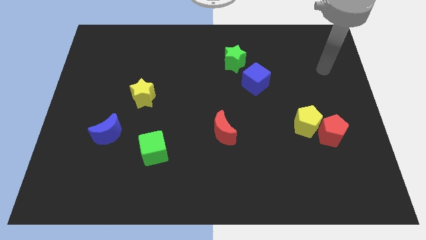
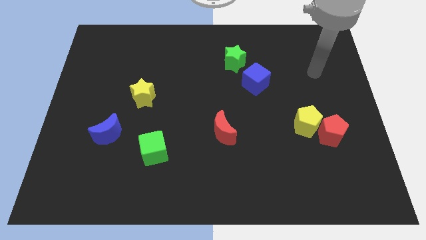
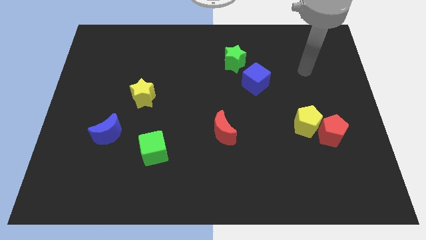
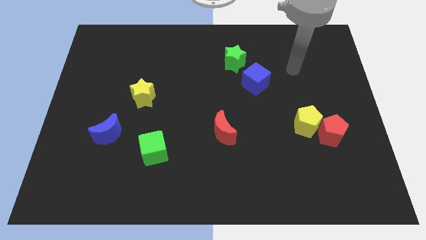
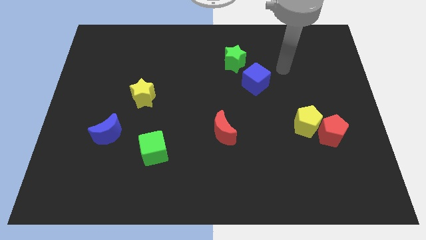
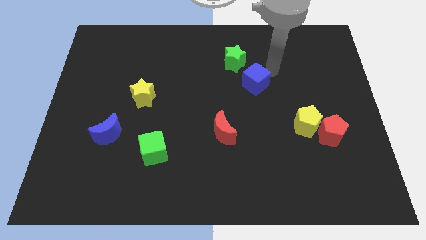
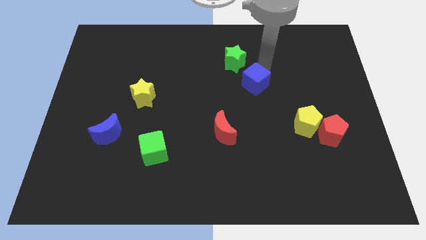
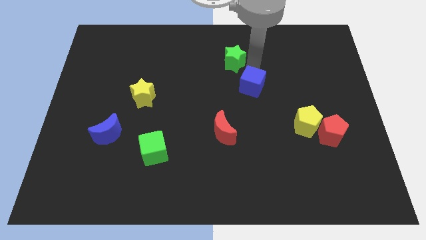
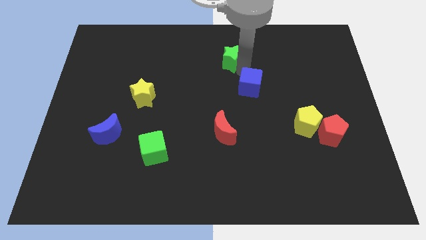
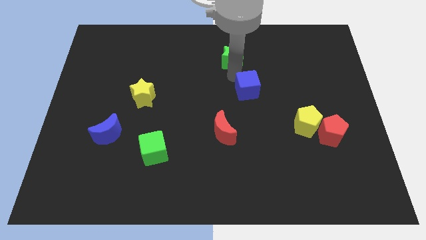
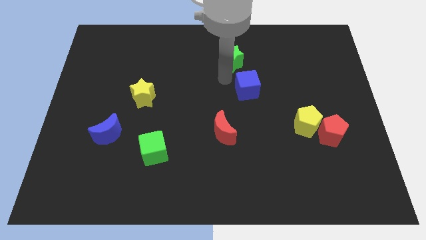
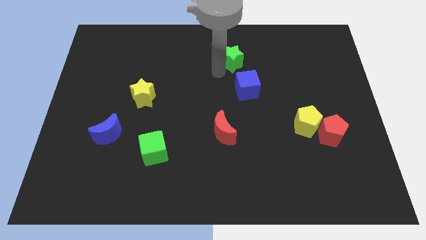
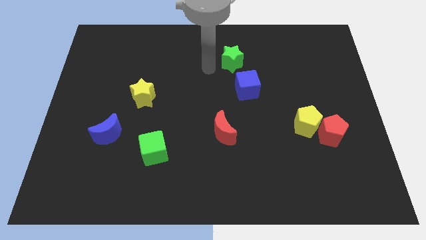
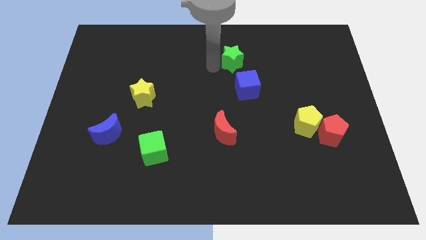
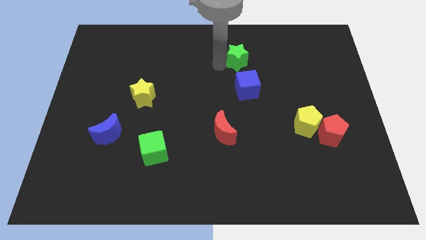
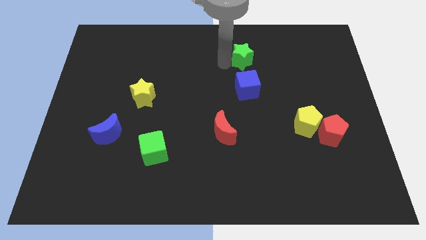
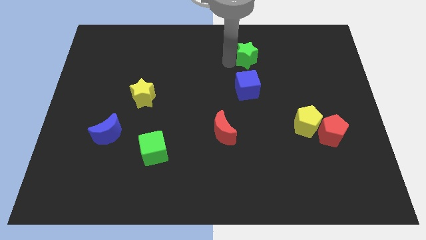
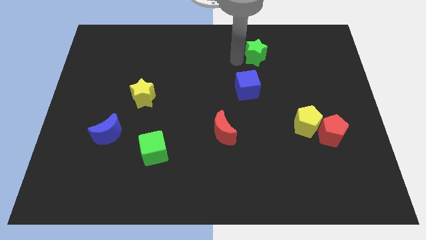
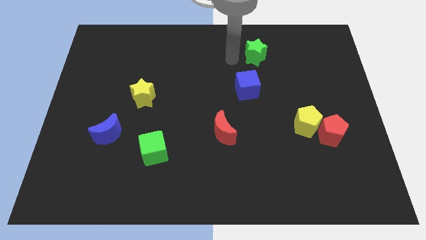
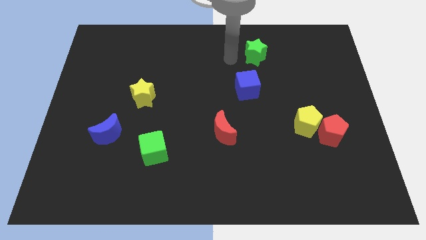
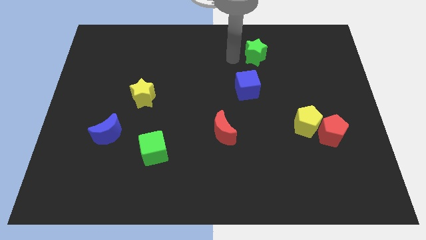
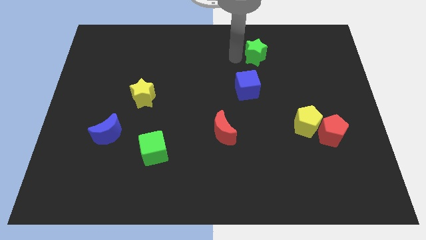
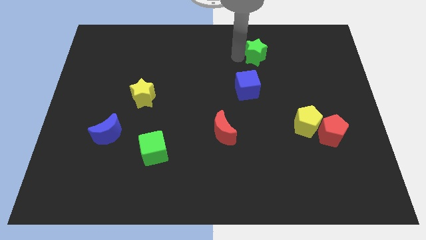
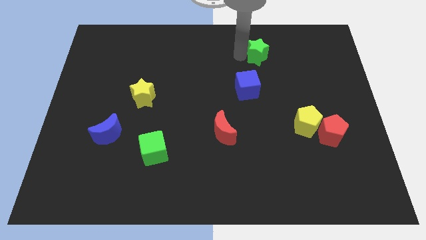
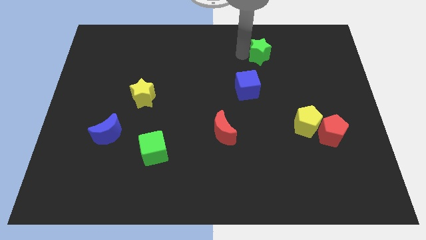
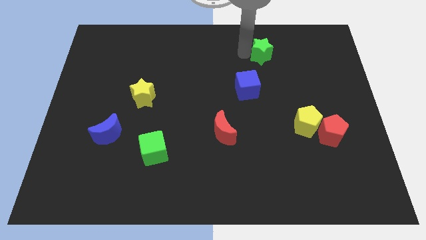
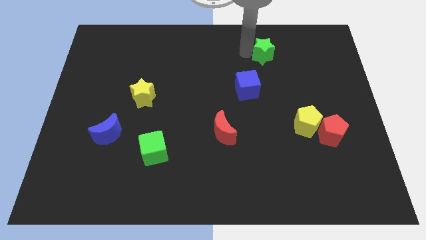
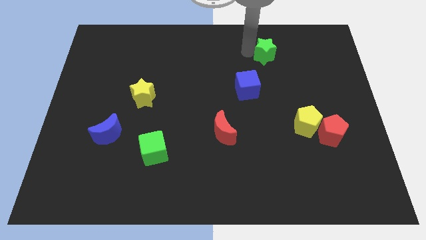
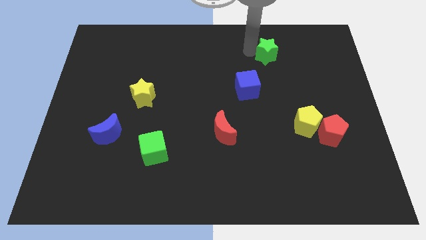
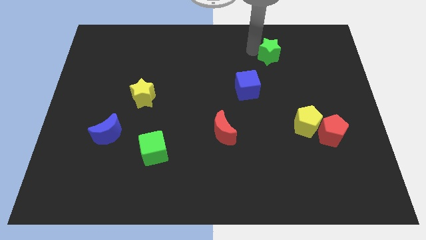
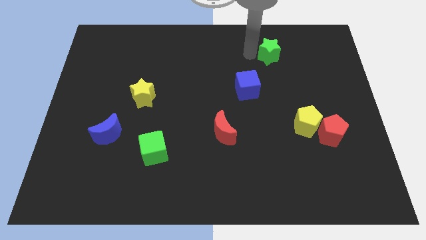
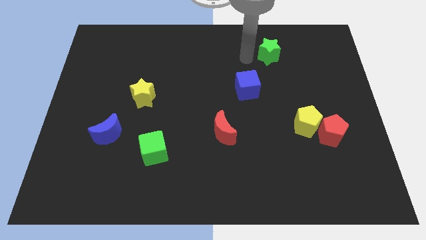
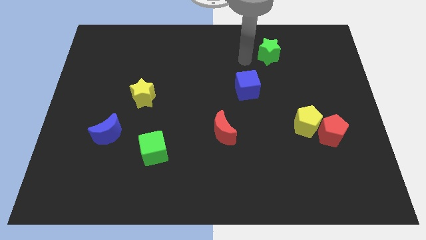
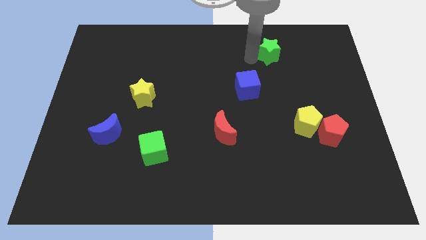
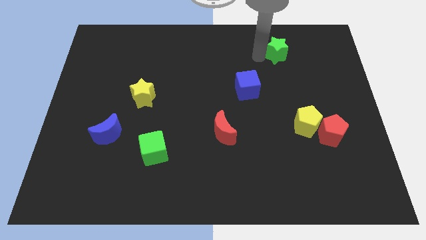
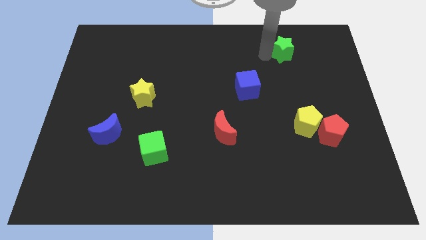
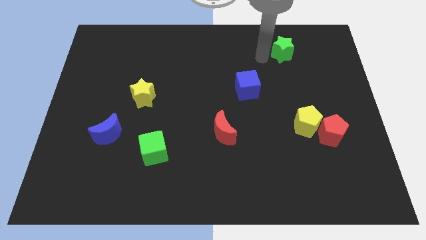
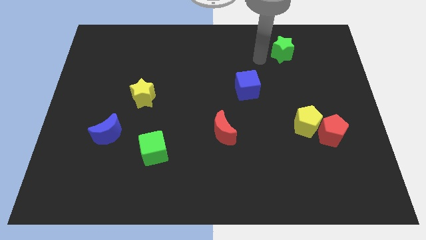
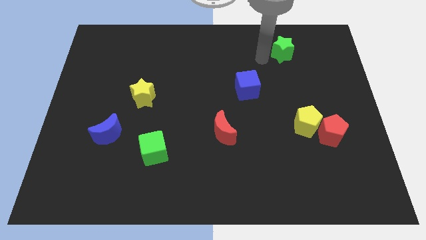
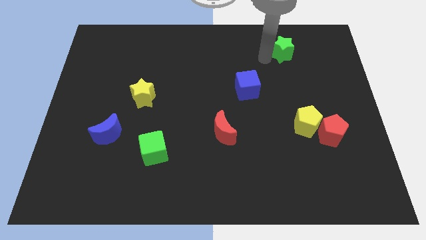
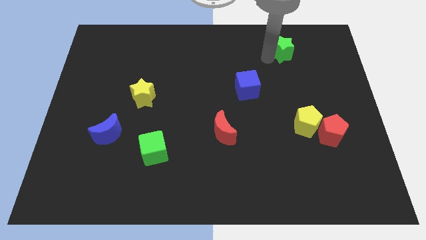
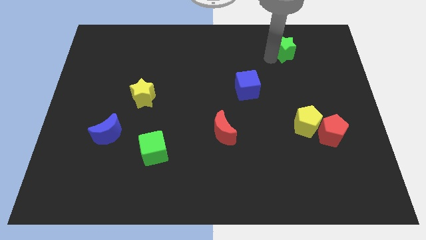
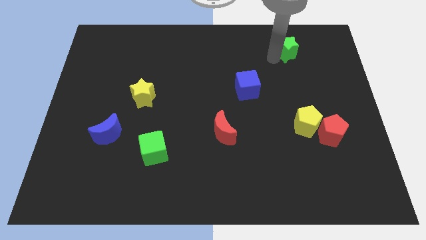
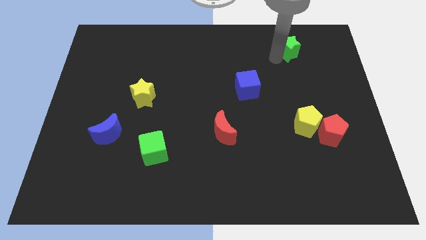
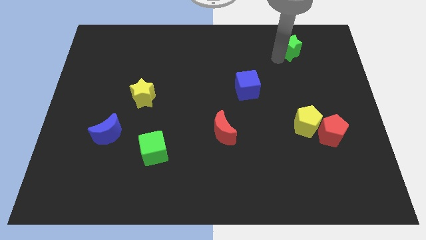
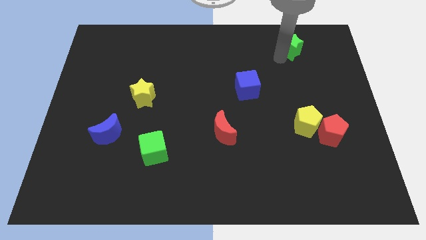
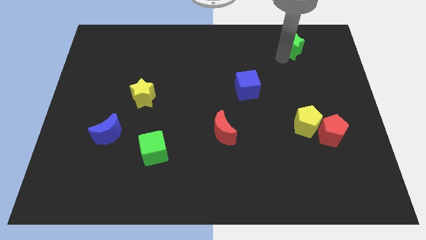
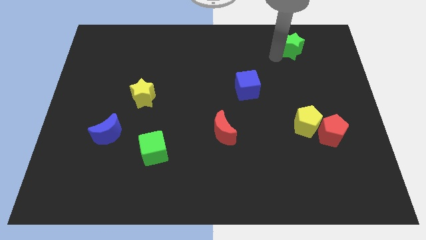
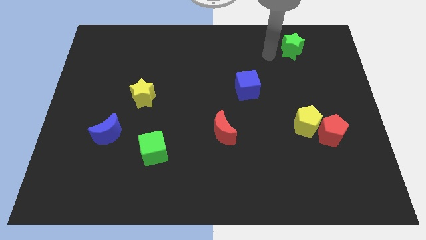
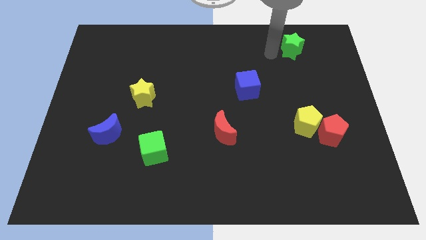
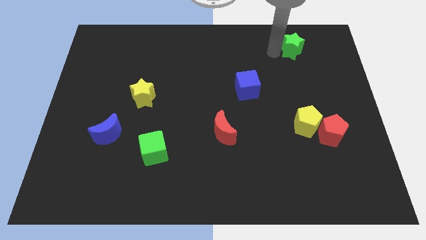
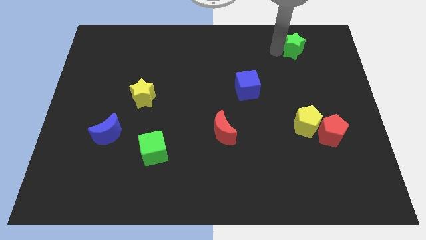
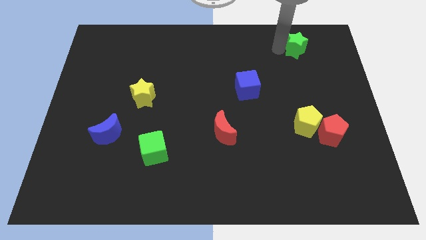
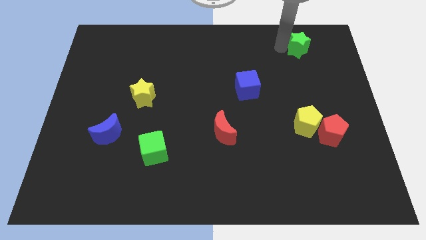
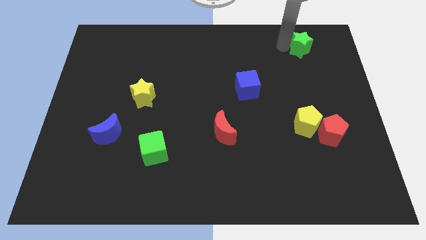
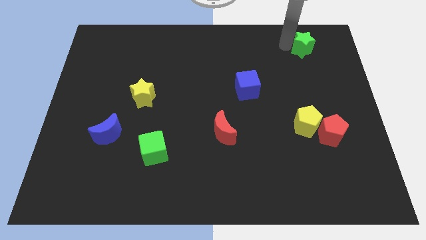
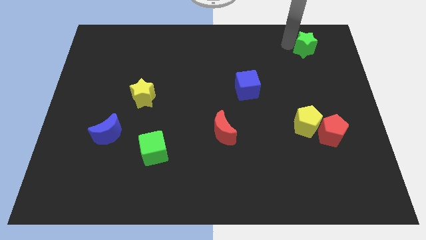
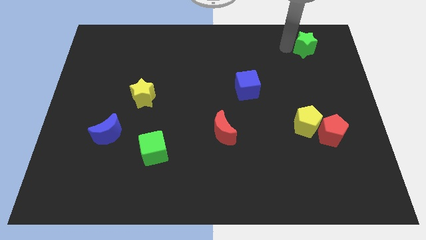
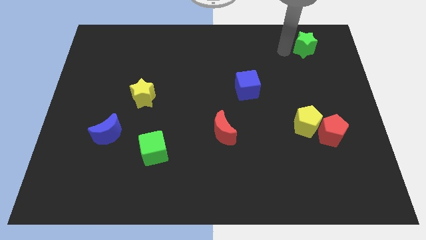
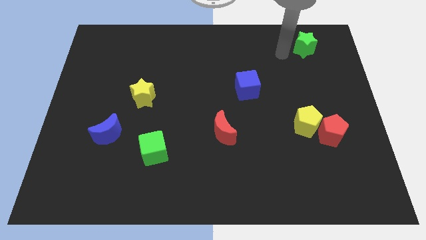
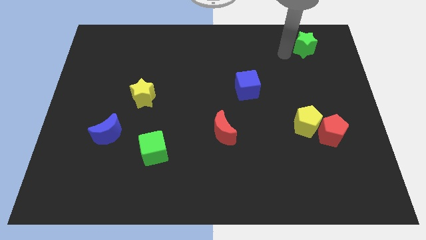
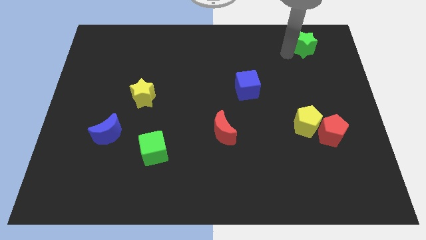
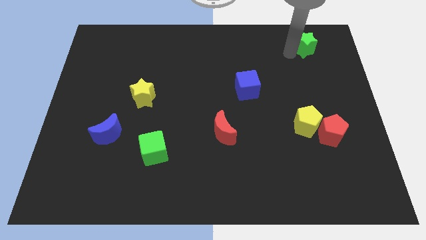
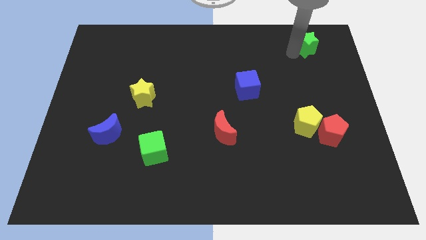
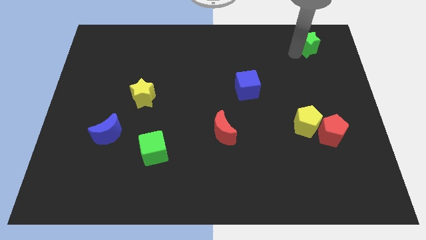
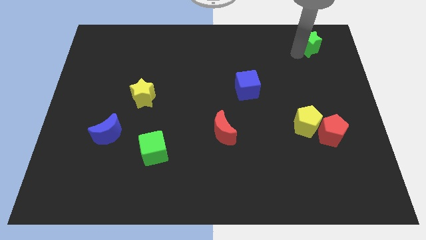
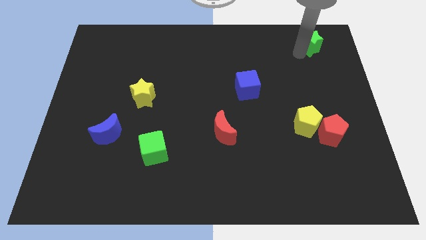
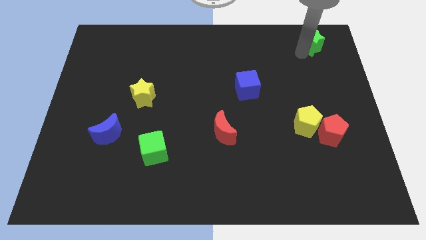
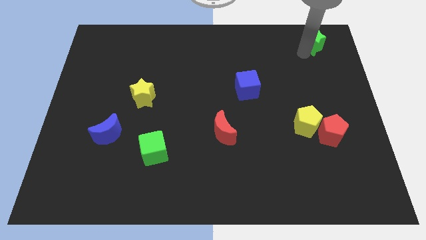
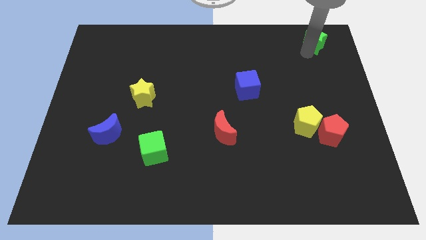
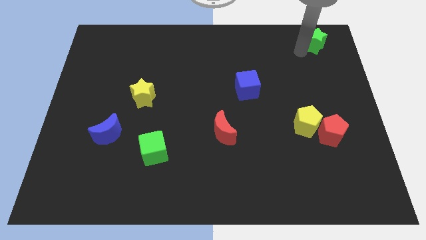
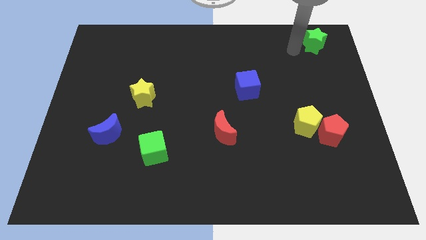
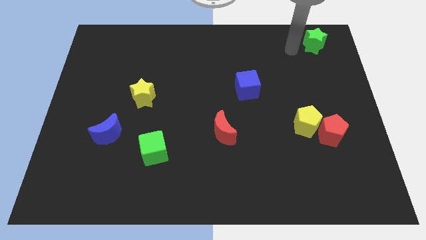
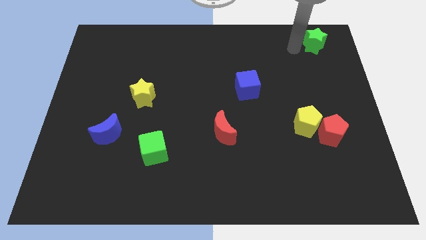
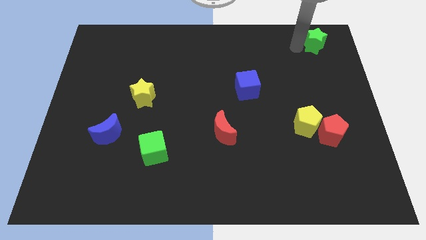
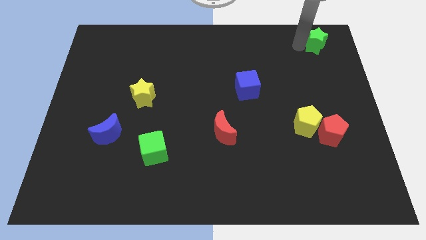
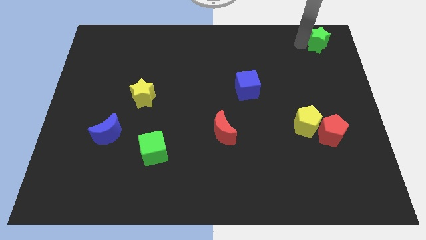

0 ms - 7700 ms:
put the green star to the upper right corner
